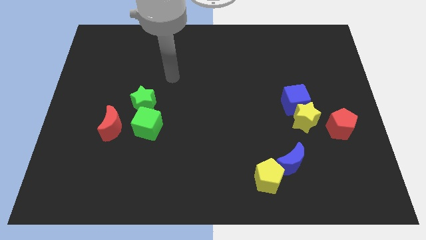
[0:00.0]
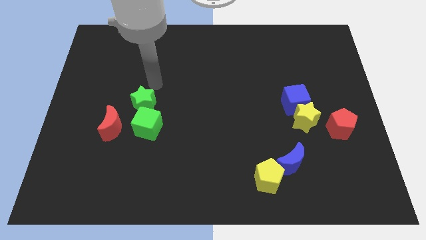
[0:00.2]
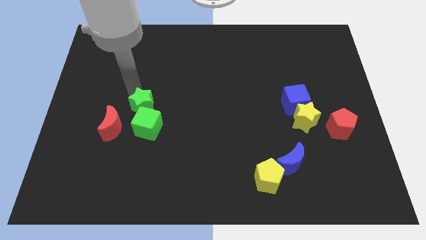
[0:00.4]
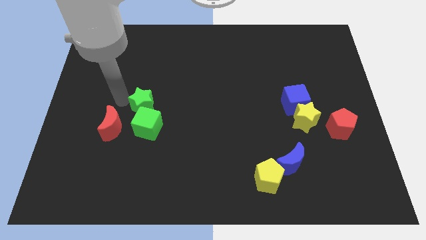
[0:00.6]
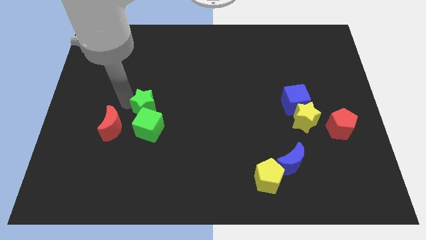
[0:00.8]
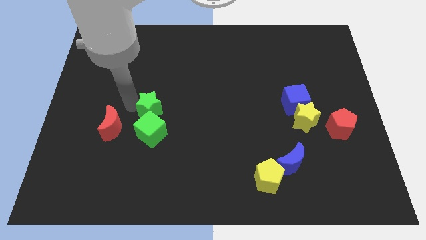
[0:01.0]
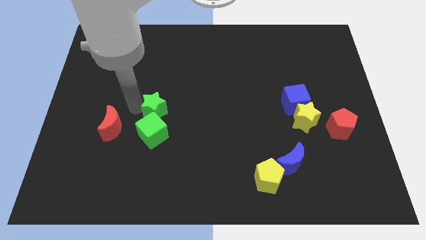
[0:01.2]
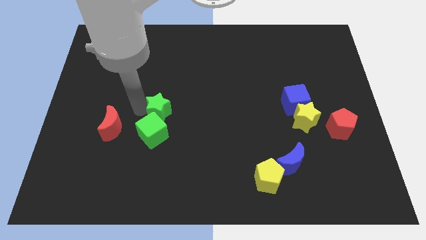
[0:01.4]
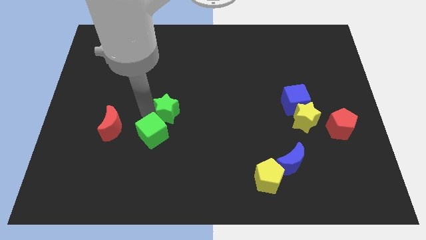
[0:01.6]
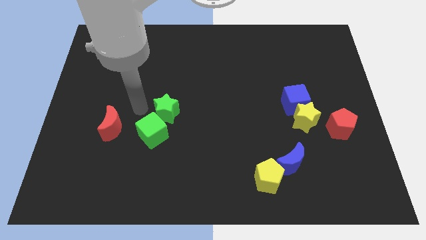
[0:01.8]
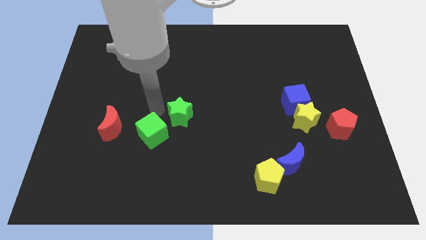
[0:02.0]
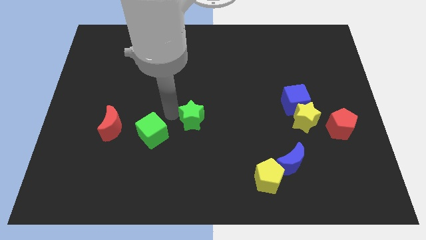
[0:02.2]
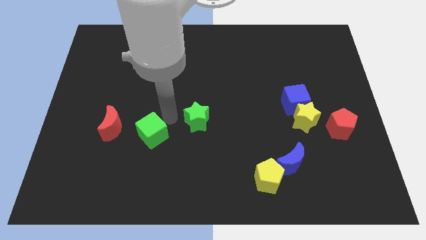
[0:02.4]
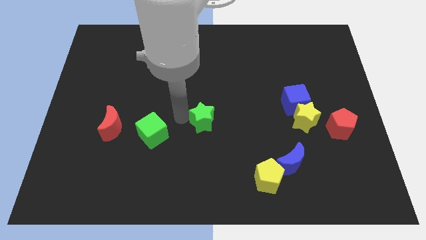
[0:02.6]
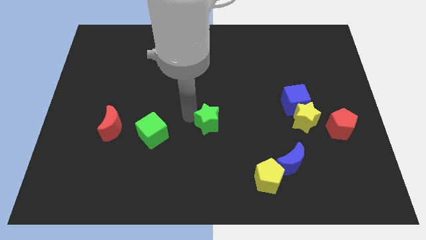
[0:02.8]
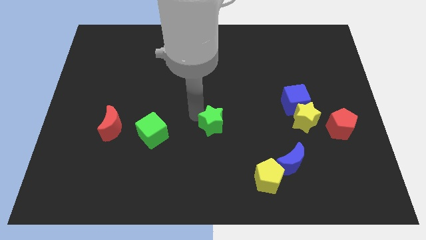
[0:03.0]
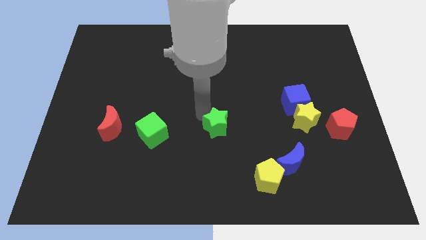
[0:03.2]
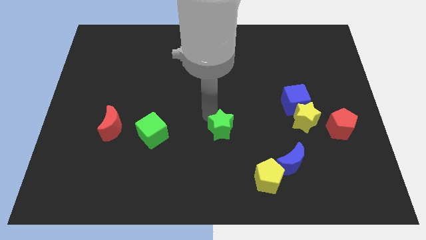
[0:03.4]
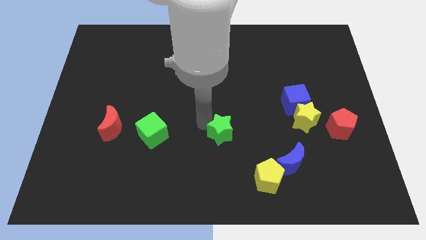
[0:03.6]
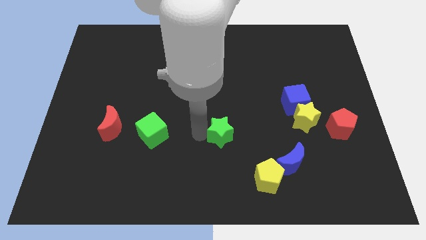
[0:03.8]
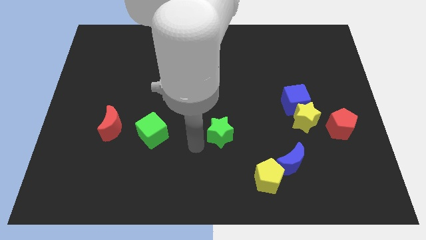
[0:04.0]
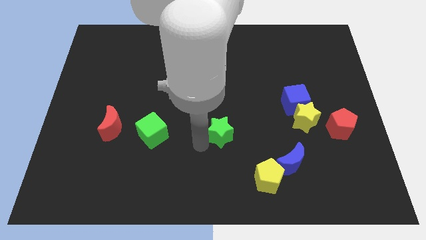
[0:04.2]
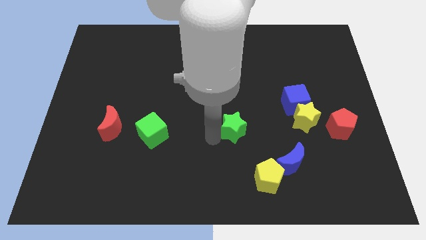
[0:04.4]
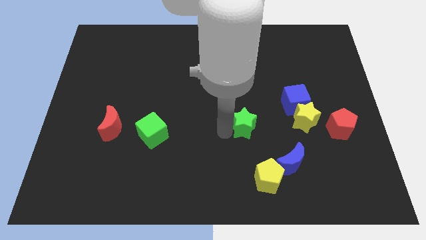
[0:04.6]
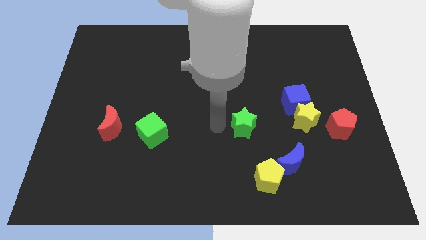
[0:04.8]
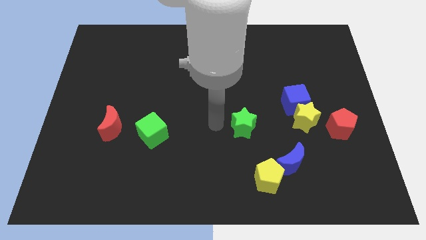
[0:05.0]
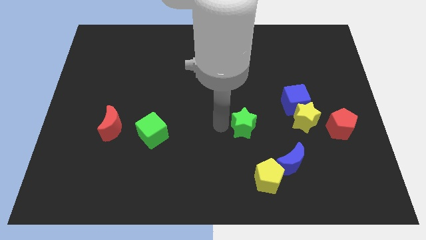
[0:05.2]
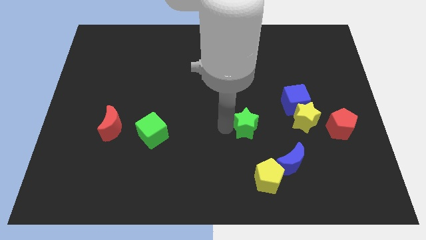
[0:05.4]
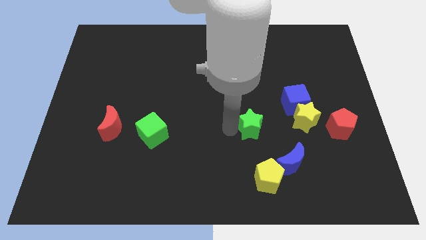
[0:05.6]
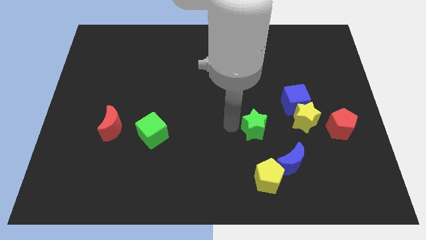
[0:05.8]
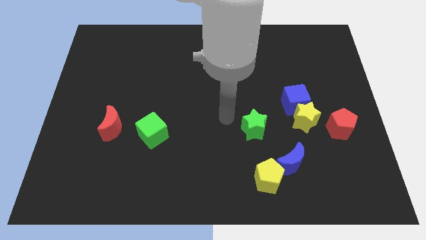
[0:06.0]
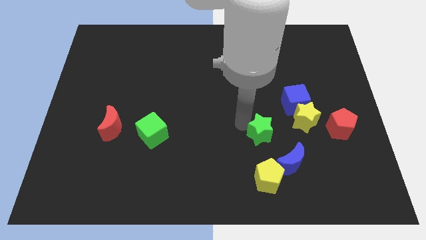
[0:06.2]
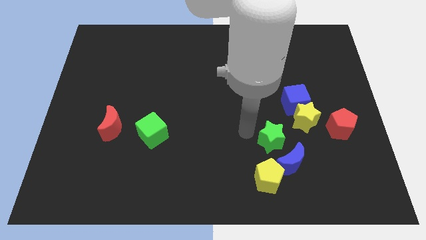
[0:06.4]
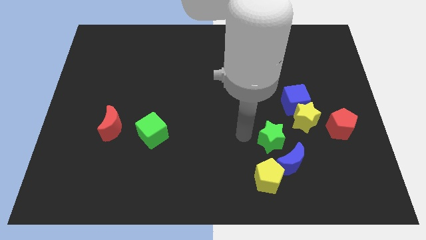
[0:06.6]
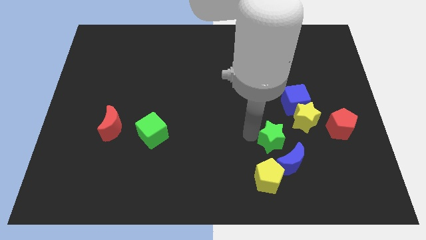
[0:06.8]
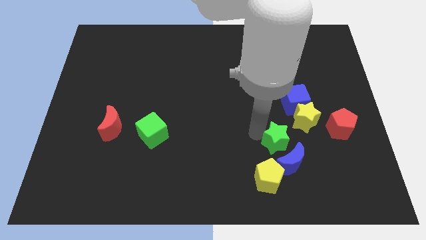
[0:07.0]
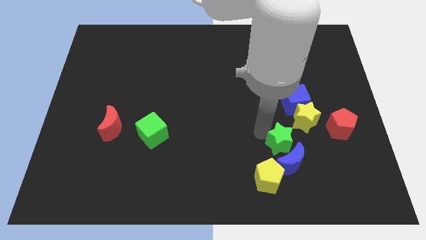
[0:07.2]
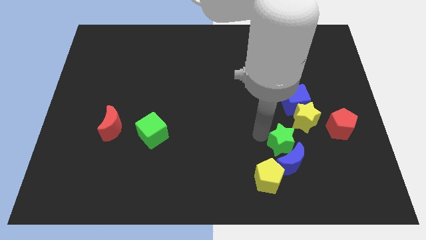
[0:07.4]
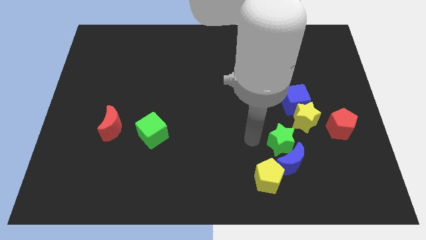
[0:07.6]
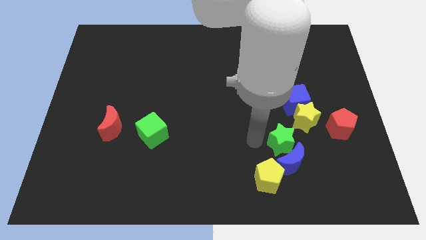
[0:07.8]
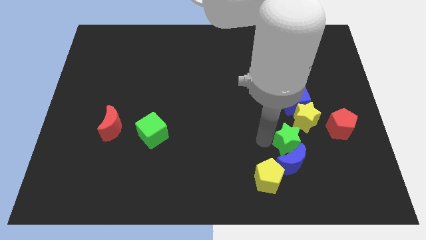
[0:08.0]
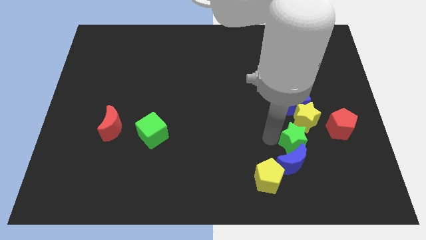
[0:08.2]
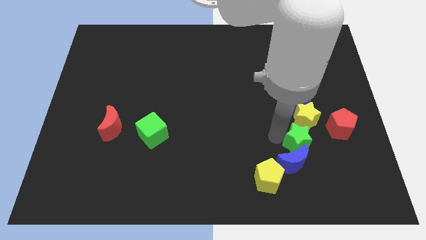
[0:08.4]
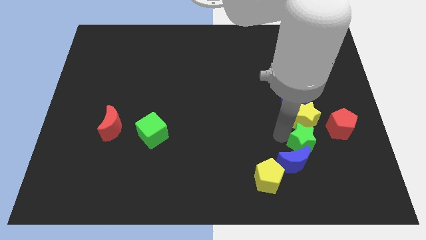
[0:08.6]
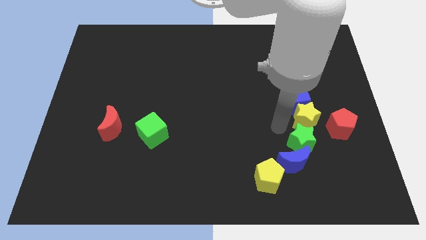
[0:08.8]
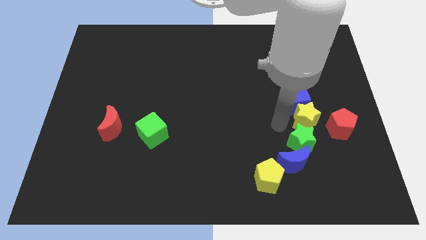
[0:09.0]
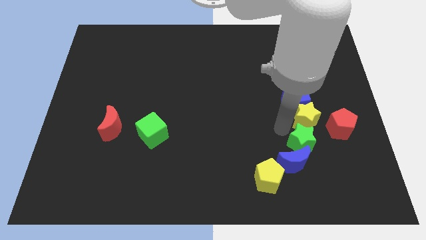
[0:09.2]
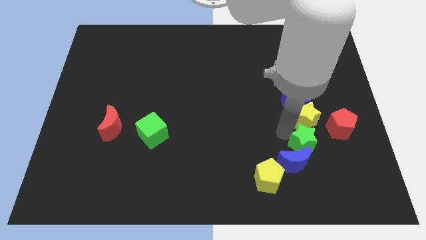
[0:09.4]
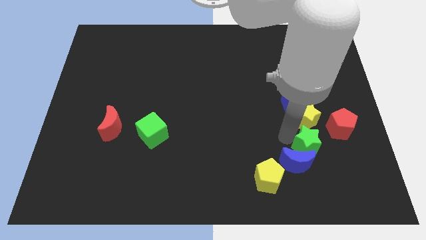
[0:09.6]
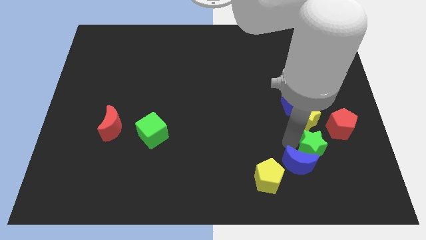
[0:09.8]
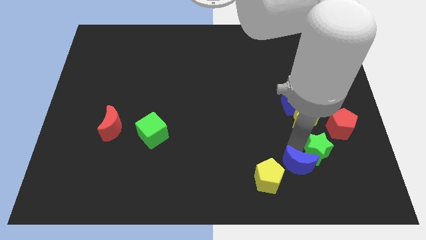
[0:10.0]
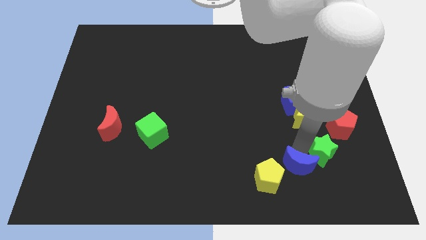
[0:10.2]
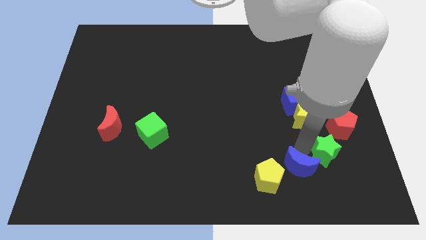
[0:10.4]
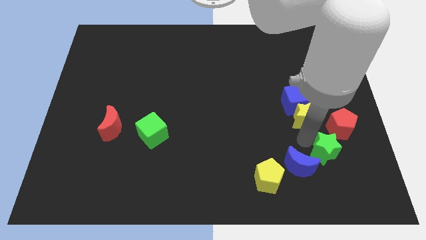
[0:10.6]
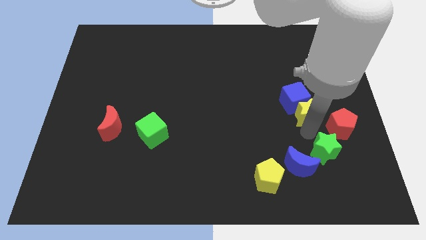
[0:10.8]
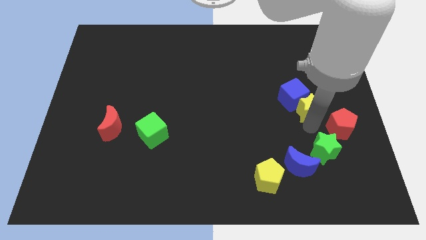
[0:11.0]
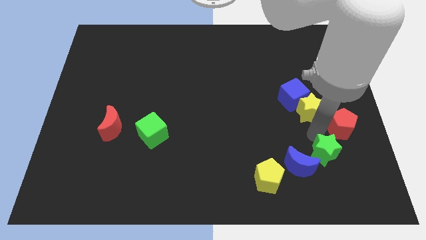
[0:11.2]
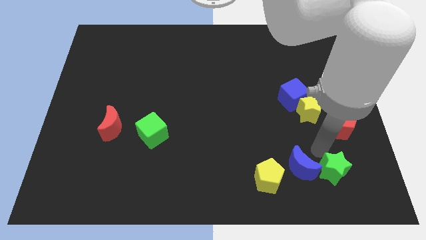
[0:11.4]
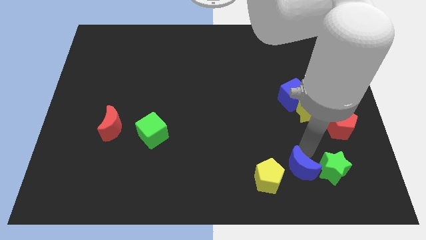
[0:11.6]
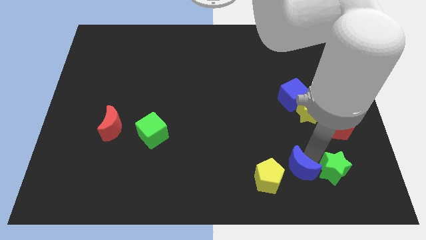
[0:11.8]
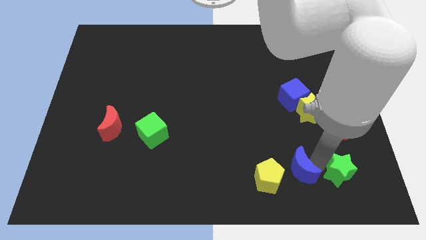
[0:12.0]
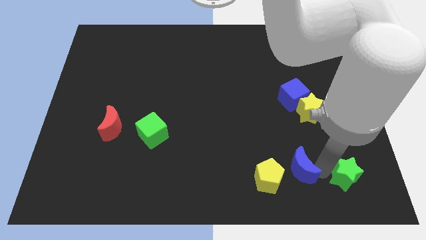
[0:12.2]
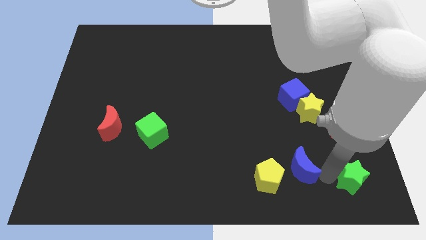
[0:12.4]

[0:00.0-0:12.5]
move the green star to the bottom right

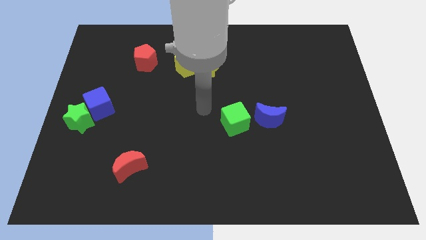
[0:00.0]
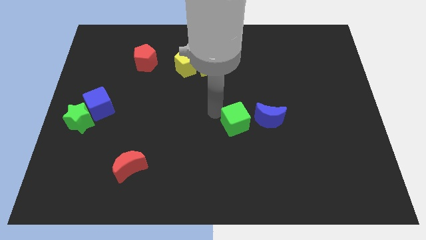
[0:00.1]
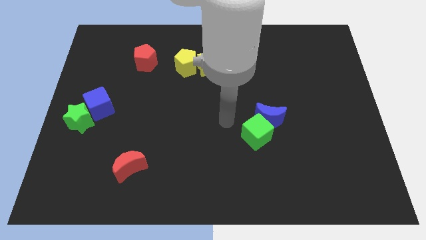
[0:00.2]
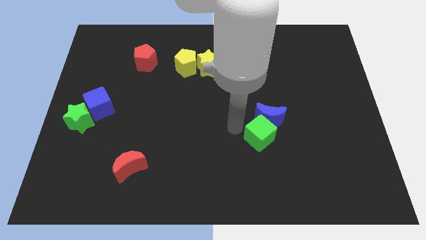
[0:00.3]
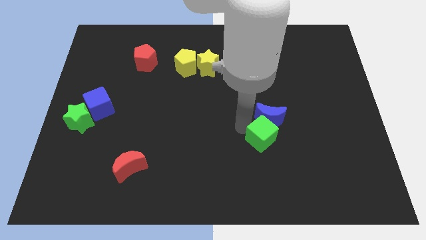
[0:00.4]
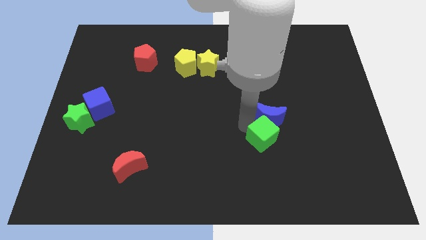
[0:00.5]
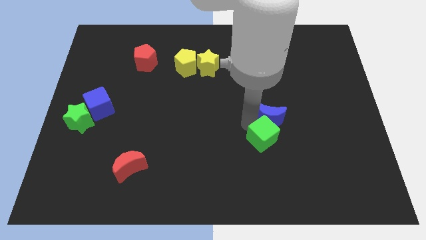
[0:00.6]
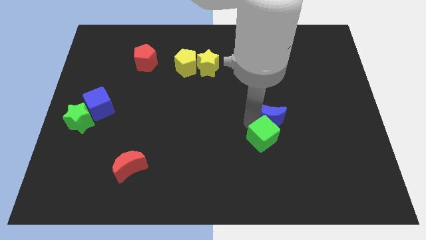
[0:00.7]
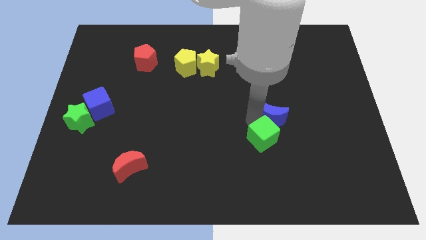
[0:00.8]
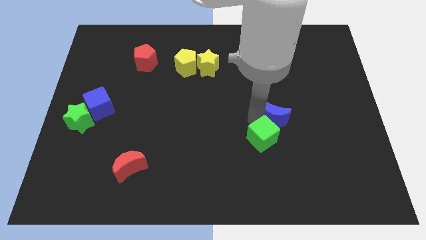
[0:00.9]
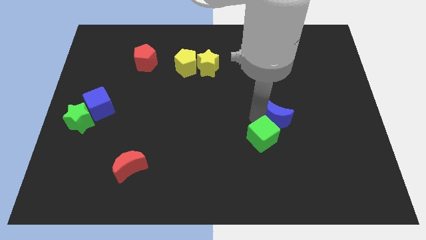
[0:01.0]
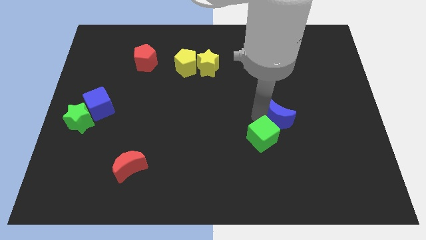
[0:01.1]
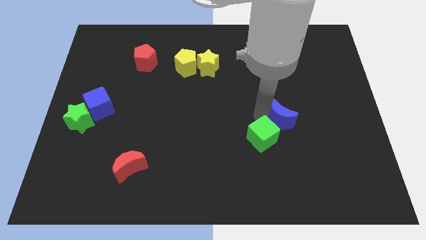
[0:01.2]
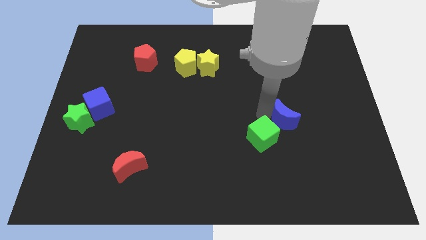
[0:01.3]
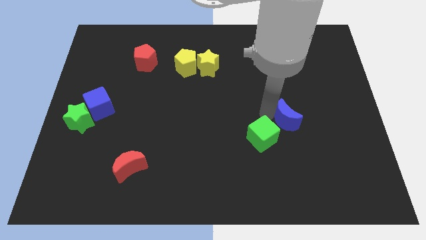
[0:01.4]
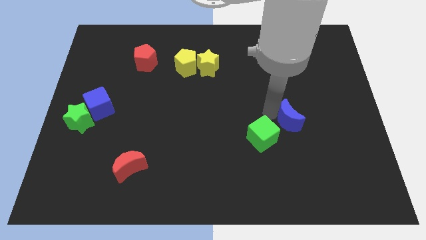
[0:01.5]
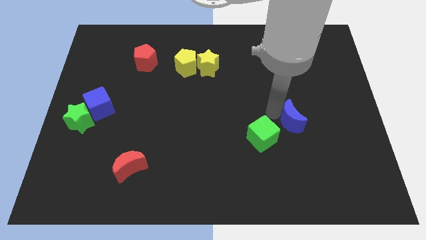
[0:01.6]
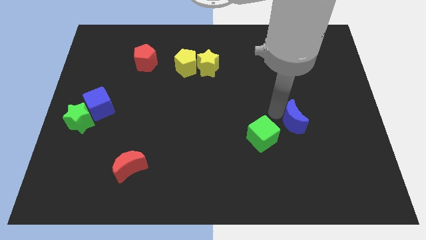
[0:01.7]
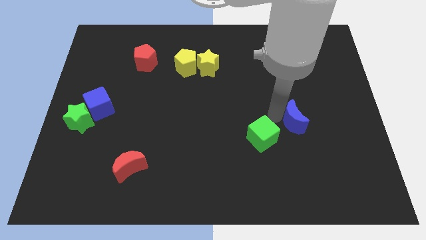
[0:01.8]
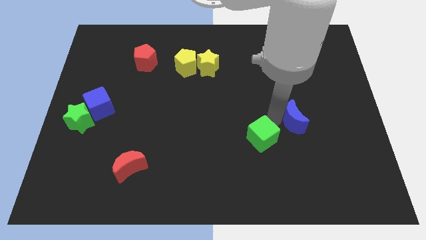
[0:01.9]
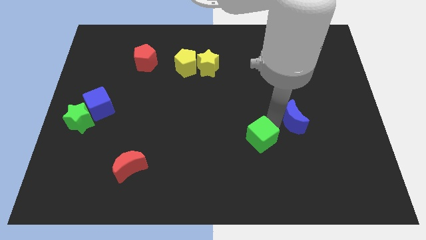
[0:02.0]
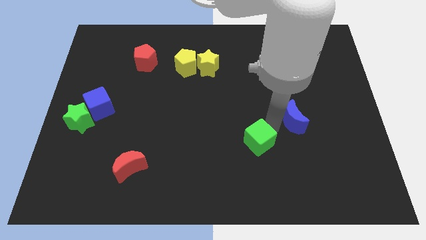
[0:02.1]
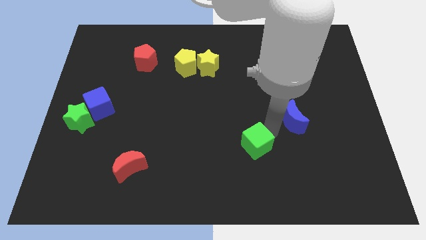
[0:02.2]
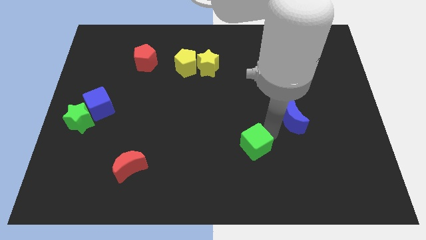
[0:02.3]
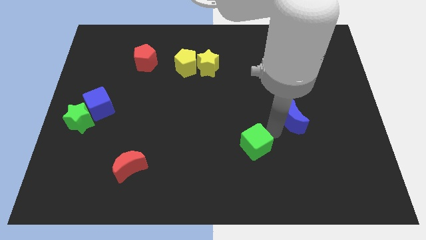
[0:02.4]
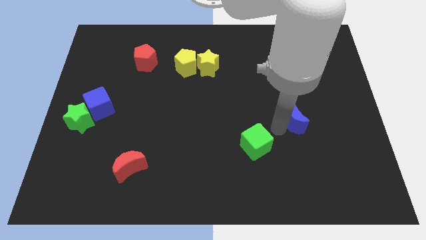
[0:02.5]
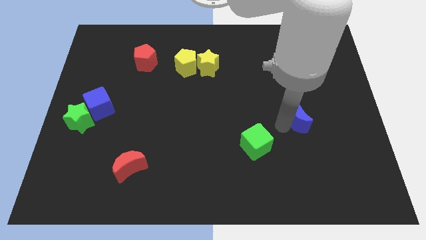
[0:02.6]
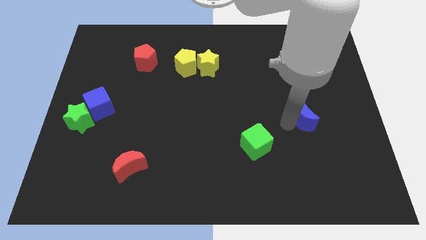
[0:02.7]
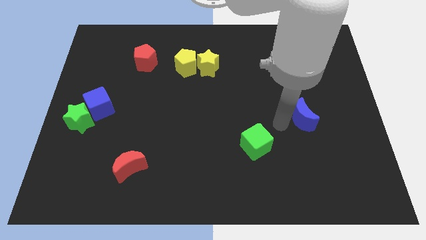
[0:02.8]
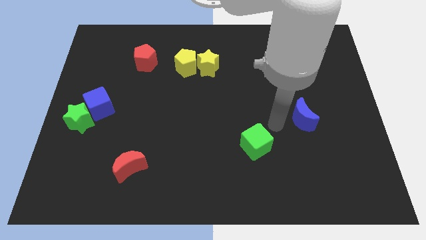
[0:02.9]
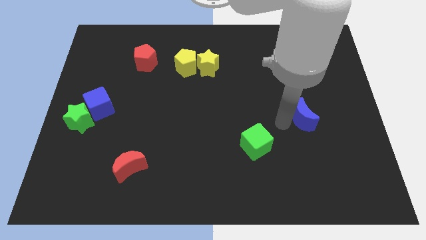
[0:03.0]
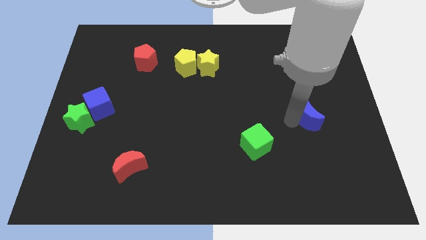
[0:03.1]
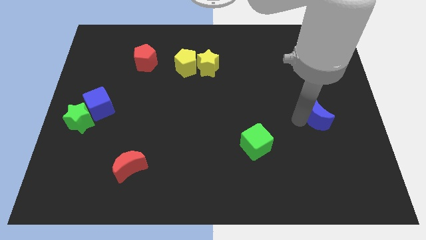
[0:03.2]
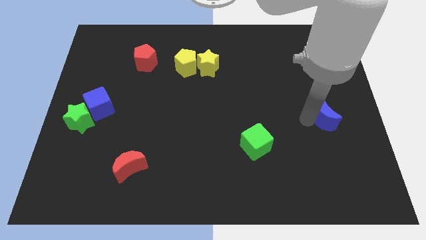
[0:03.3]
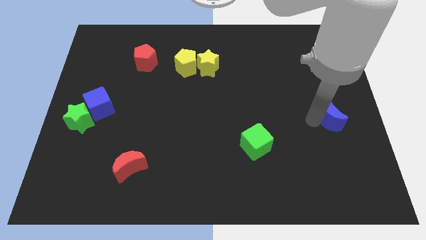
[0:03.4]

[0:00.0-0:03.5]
move the blue moon to the center right
